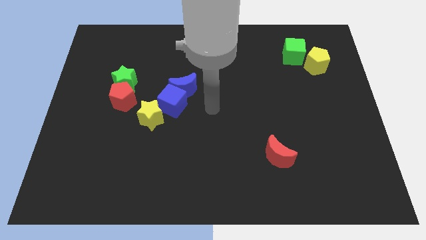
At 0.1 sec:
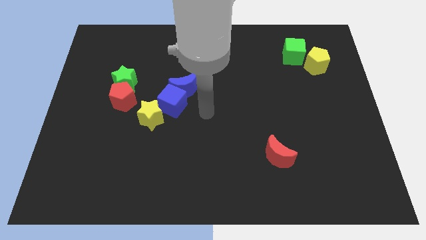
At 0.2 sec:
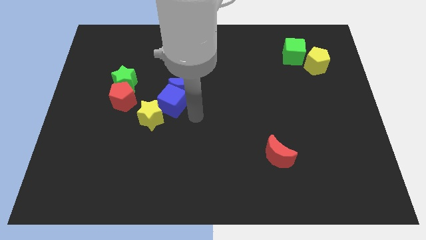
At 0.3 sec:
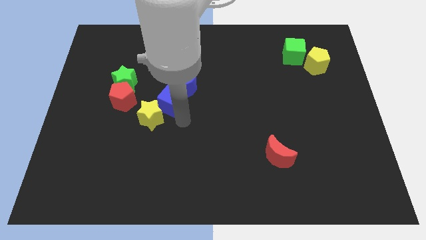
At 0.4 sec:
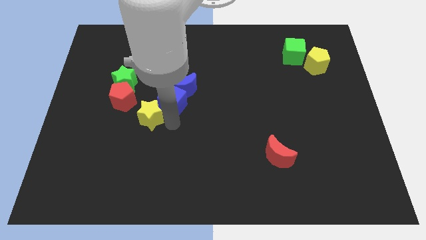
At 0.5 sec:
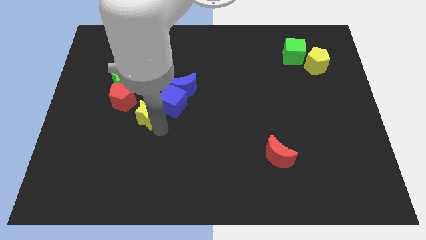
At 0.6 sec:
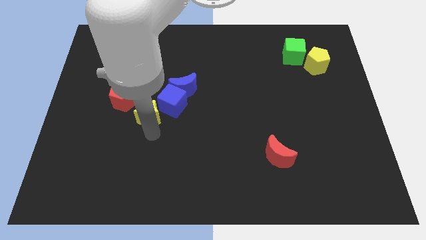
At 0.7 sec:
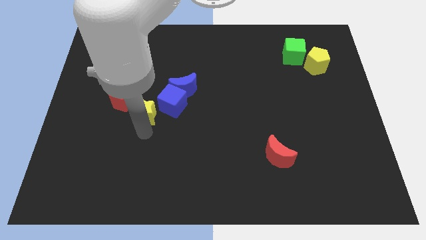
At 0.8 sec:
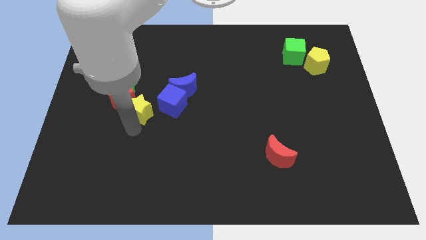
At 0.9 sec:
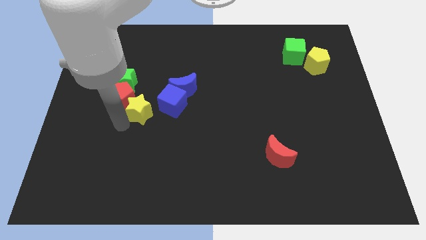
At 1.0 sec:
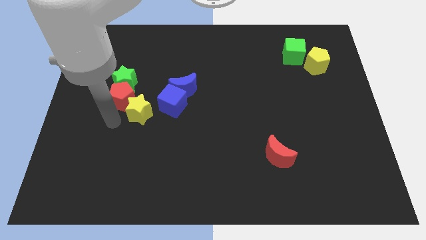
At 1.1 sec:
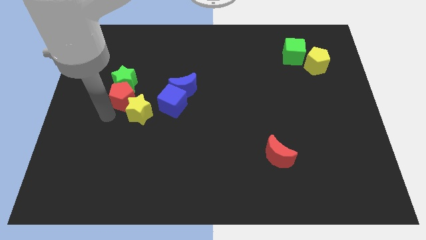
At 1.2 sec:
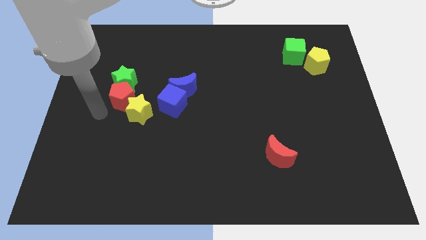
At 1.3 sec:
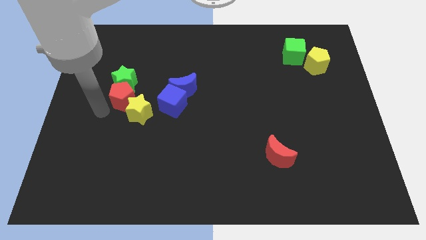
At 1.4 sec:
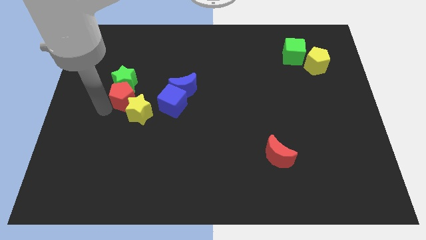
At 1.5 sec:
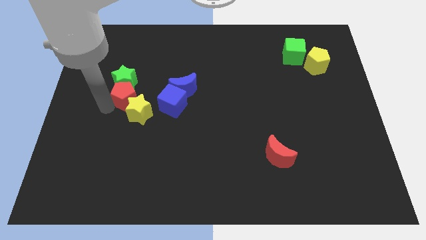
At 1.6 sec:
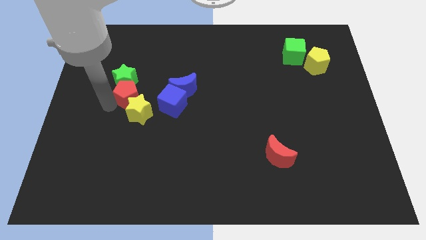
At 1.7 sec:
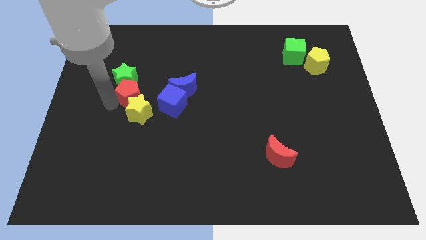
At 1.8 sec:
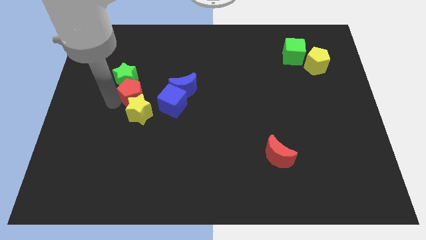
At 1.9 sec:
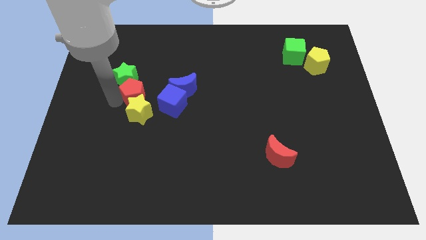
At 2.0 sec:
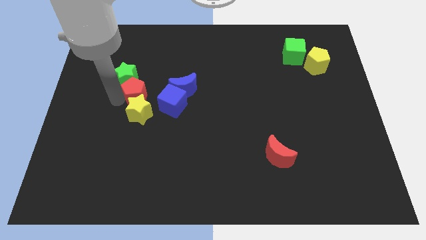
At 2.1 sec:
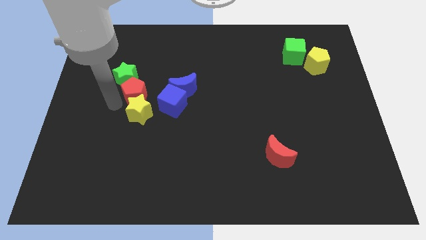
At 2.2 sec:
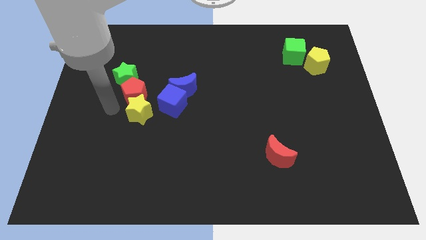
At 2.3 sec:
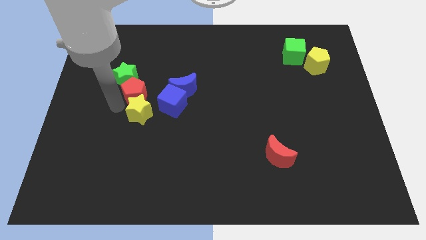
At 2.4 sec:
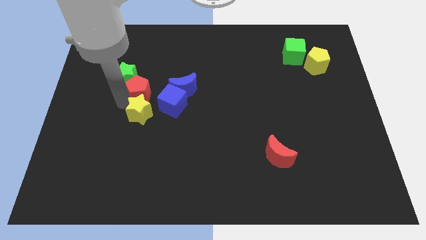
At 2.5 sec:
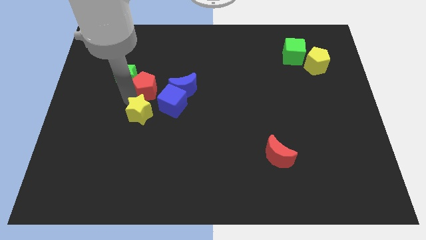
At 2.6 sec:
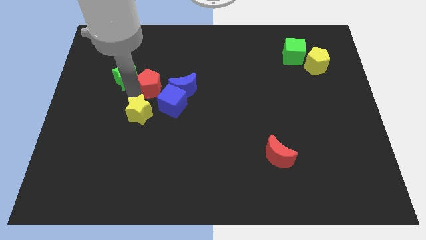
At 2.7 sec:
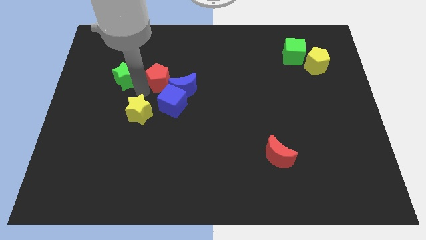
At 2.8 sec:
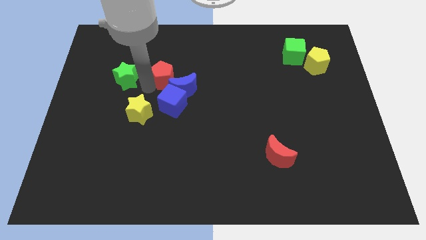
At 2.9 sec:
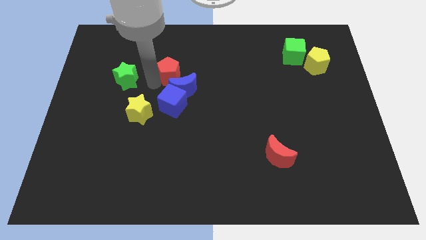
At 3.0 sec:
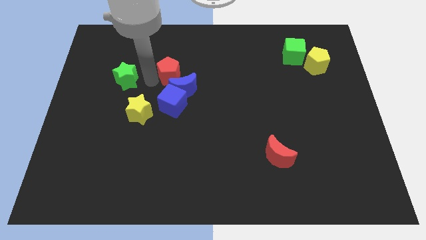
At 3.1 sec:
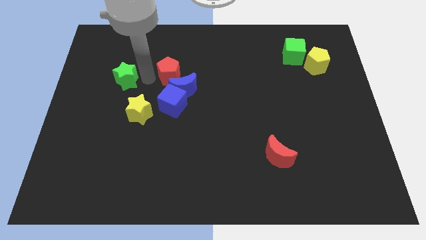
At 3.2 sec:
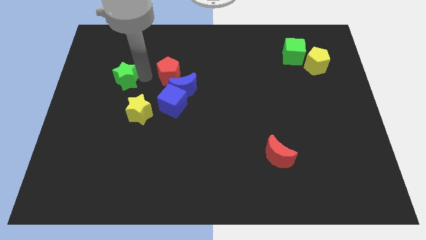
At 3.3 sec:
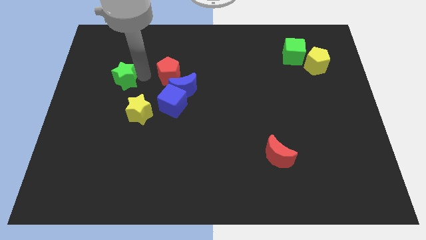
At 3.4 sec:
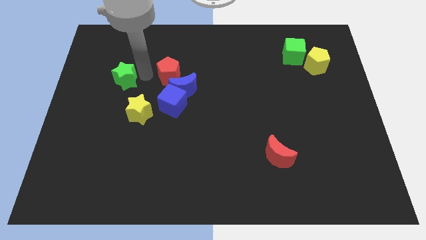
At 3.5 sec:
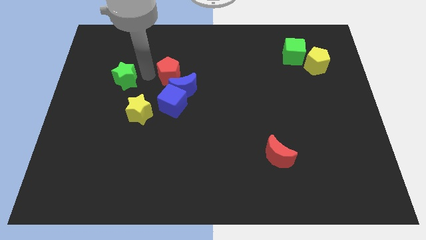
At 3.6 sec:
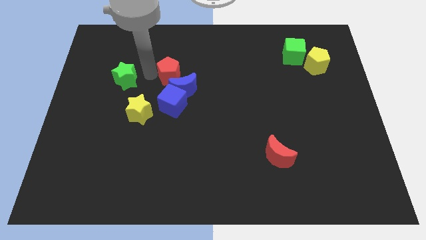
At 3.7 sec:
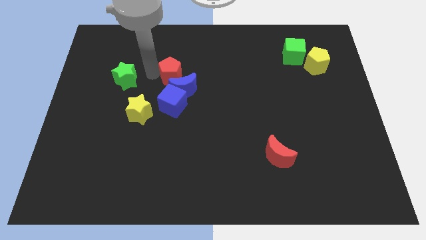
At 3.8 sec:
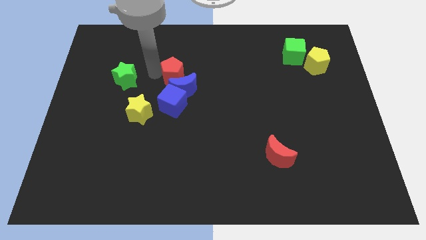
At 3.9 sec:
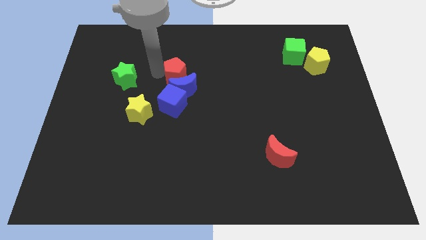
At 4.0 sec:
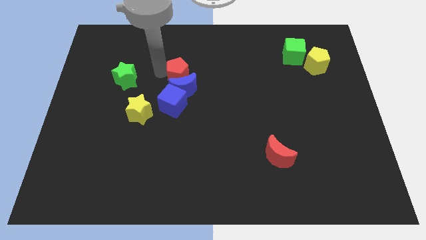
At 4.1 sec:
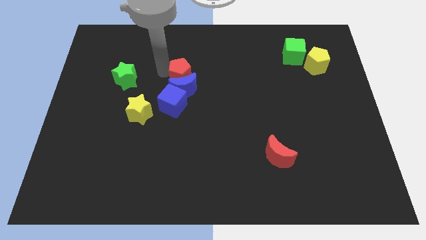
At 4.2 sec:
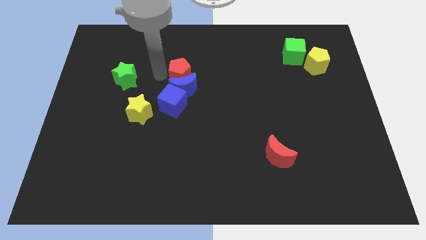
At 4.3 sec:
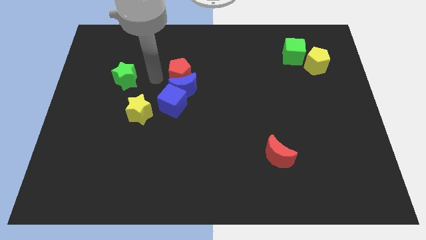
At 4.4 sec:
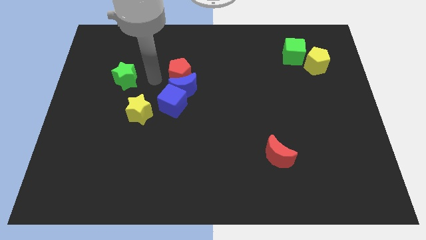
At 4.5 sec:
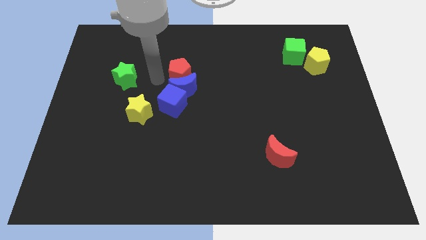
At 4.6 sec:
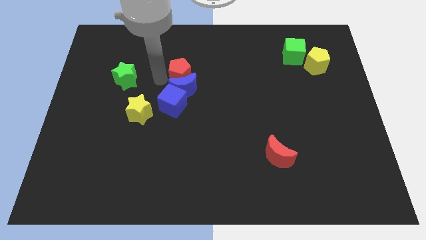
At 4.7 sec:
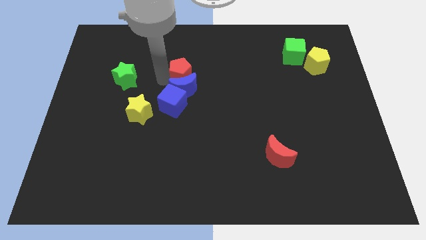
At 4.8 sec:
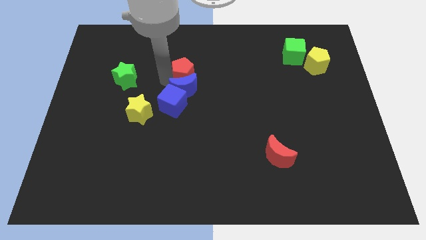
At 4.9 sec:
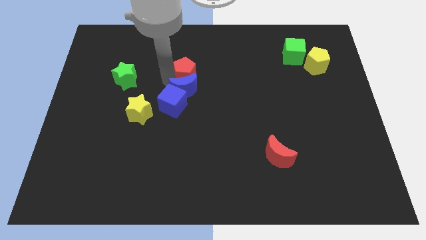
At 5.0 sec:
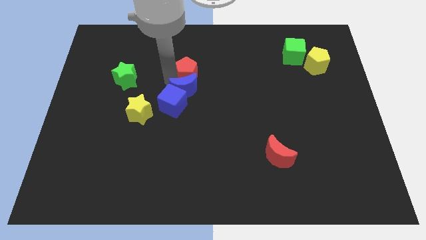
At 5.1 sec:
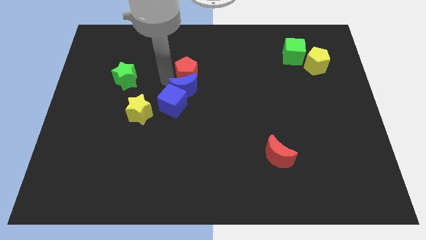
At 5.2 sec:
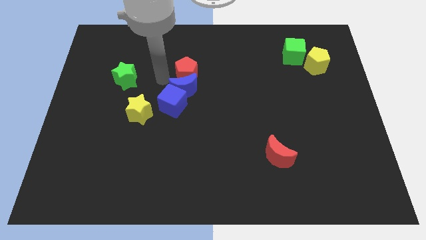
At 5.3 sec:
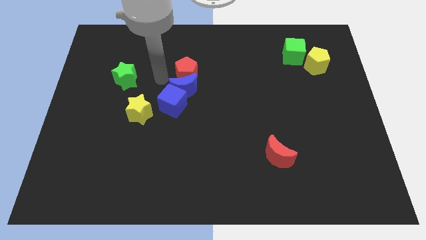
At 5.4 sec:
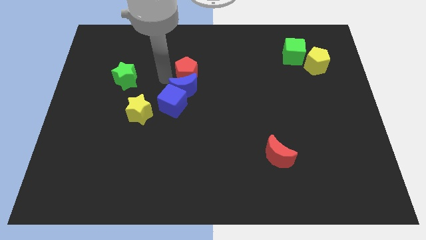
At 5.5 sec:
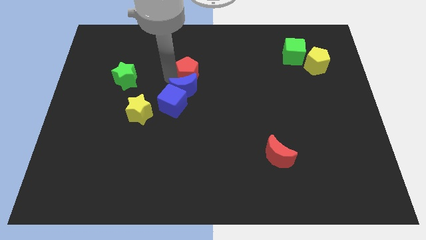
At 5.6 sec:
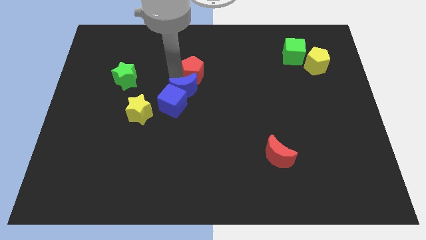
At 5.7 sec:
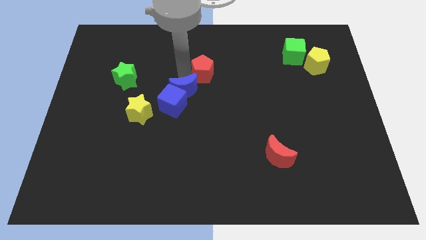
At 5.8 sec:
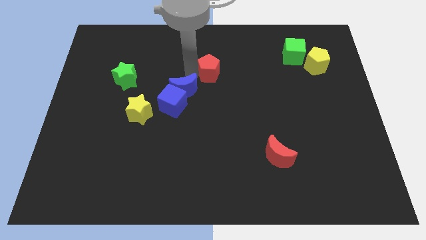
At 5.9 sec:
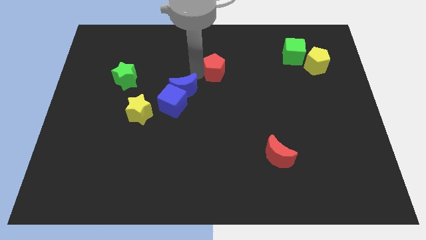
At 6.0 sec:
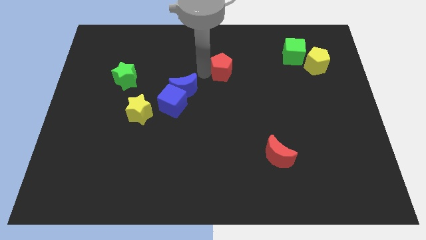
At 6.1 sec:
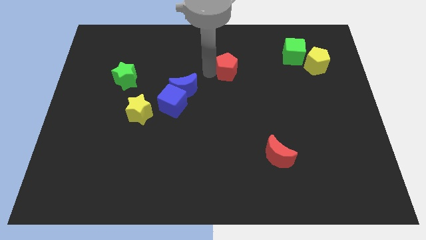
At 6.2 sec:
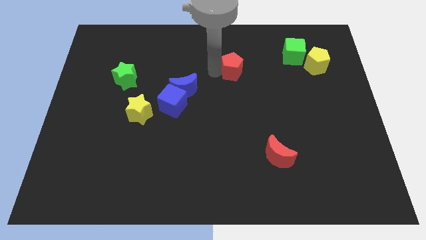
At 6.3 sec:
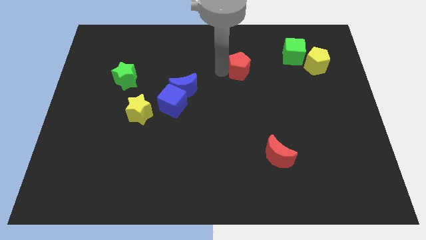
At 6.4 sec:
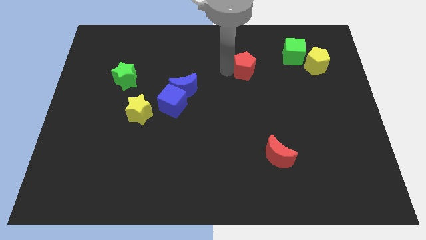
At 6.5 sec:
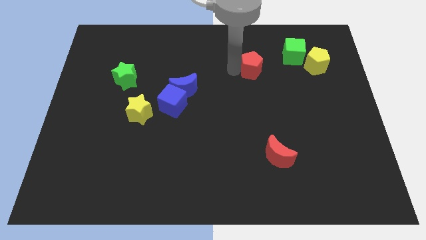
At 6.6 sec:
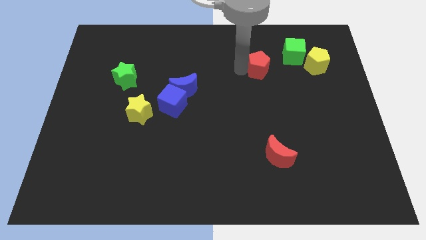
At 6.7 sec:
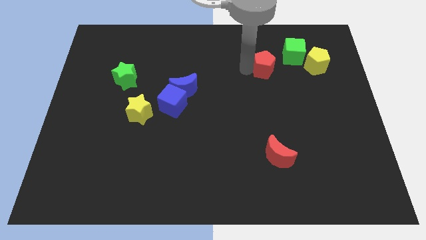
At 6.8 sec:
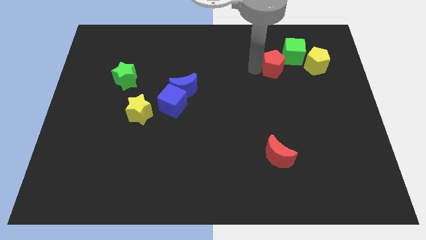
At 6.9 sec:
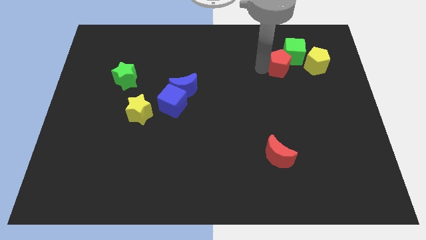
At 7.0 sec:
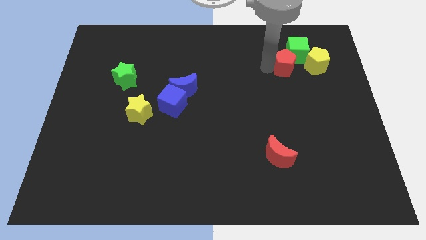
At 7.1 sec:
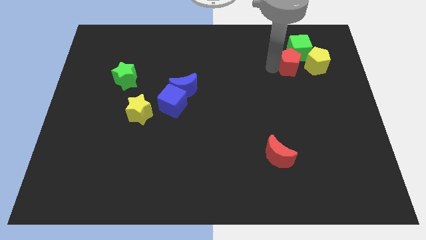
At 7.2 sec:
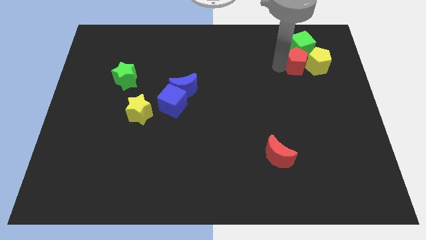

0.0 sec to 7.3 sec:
move the red pentagon to the yellow pentagon
